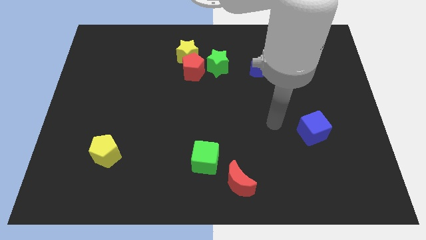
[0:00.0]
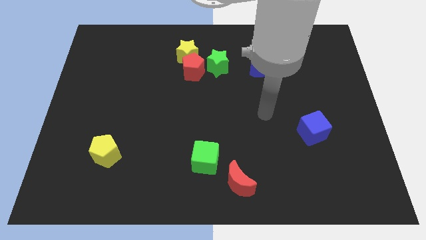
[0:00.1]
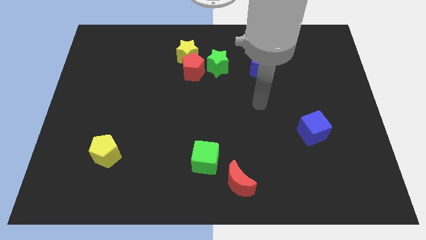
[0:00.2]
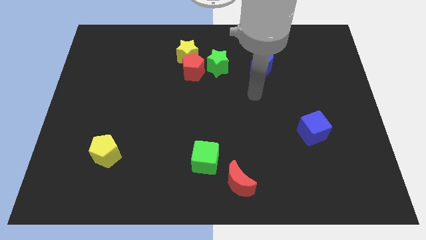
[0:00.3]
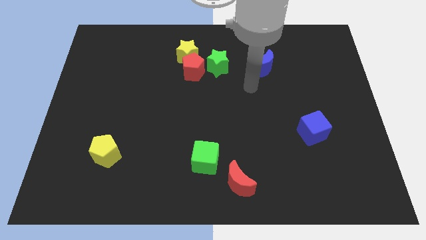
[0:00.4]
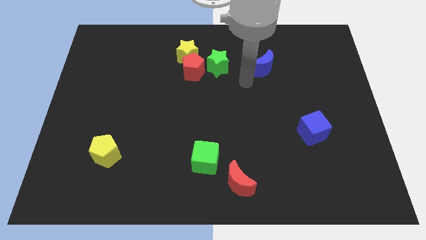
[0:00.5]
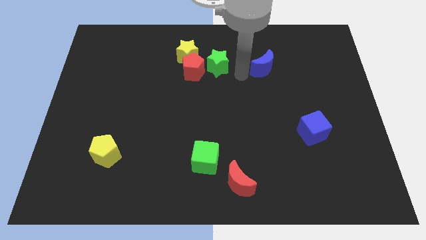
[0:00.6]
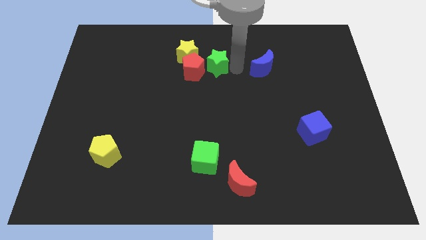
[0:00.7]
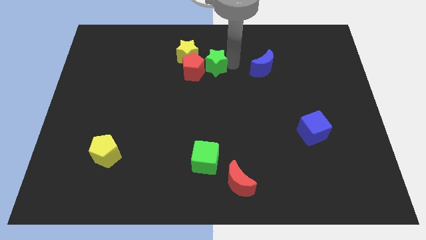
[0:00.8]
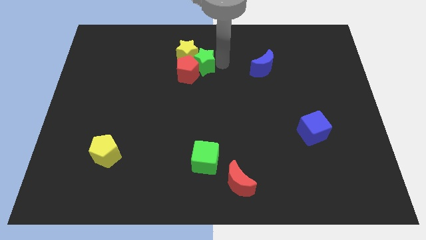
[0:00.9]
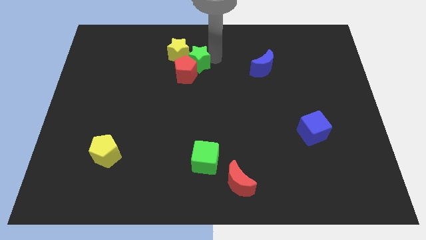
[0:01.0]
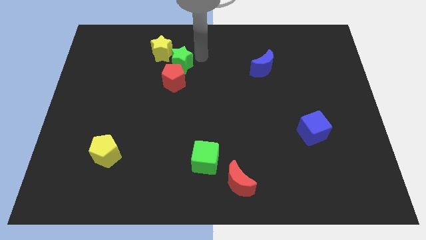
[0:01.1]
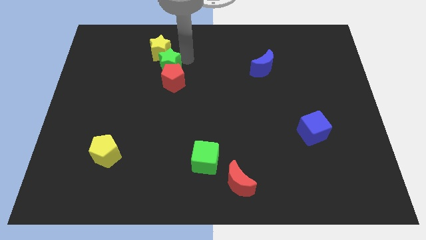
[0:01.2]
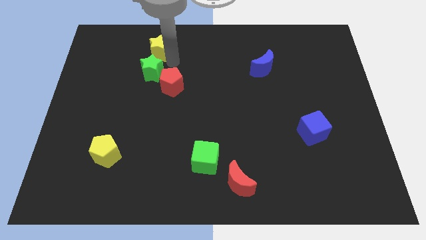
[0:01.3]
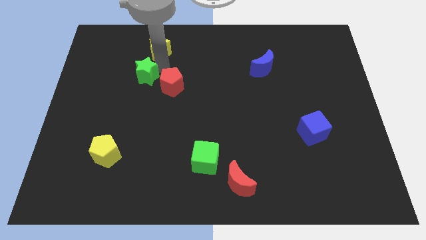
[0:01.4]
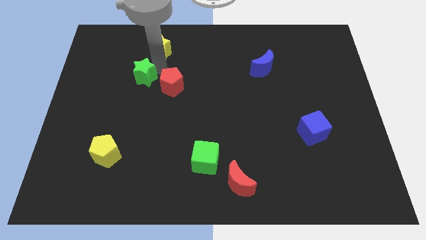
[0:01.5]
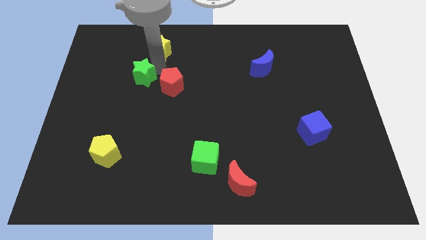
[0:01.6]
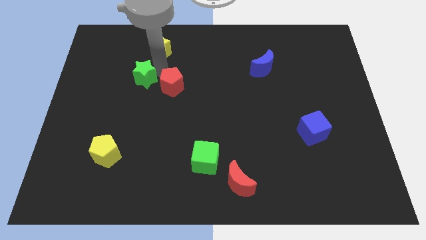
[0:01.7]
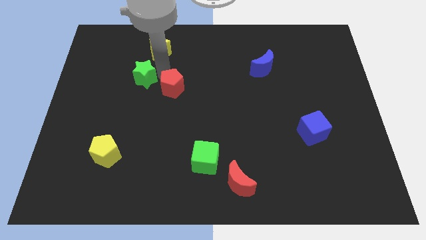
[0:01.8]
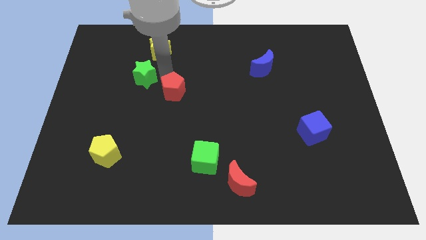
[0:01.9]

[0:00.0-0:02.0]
pull the red pentagon apart from the yellow star and green star

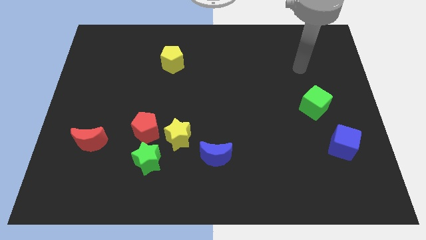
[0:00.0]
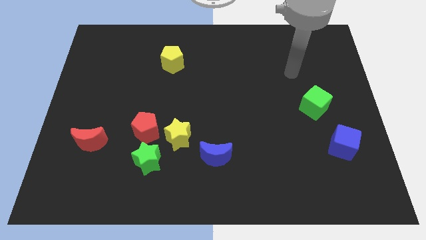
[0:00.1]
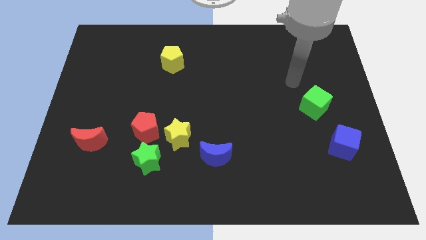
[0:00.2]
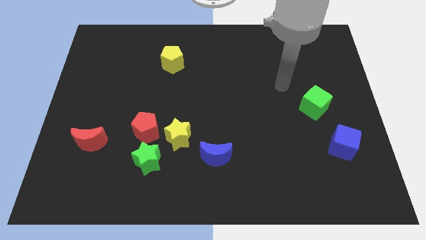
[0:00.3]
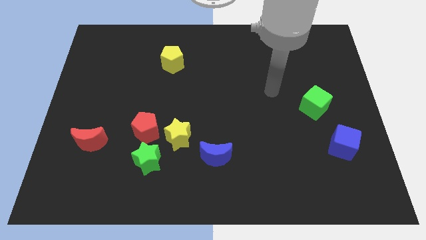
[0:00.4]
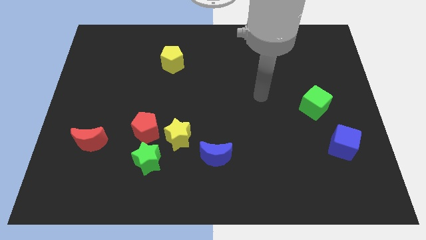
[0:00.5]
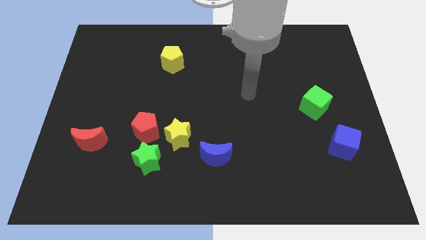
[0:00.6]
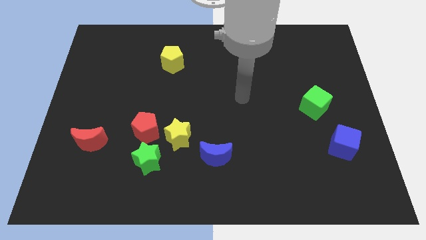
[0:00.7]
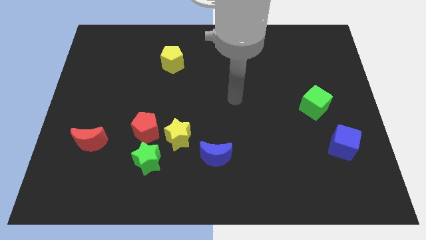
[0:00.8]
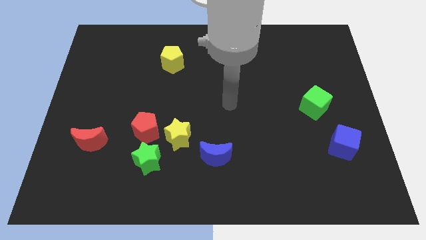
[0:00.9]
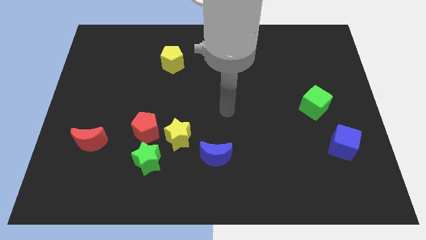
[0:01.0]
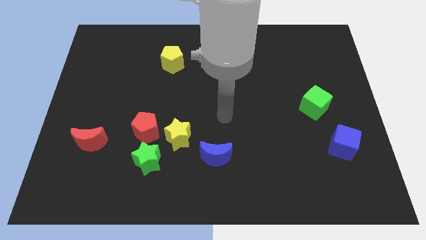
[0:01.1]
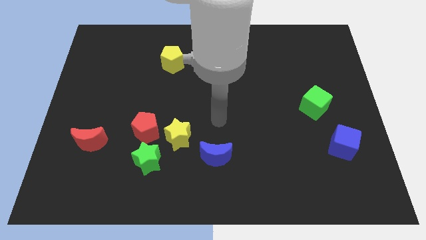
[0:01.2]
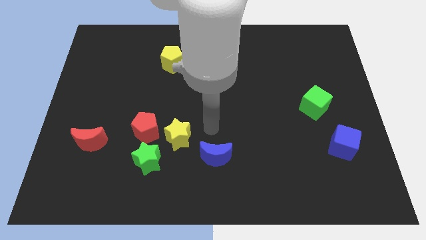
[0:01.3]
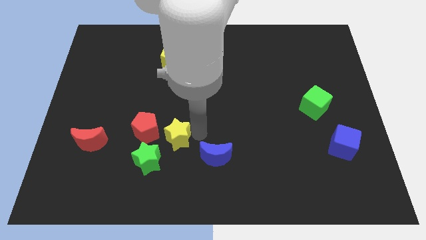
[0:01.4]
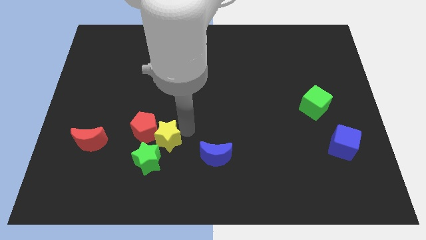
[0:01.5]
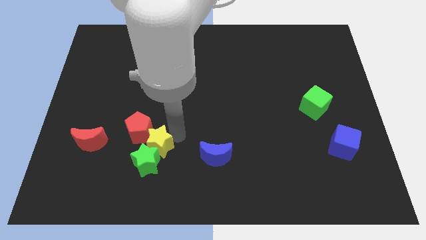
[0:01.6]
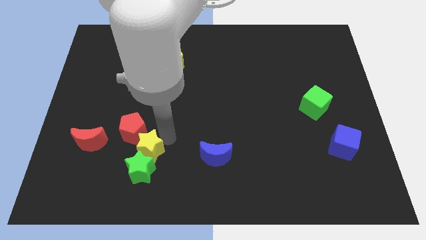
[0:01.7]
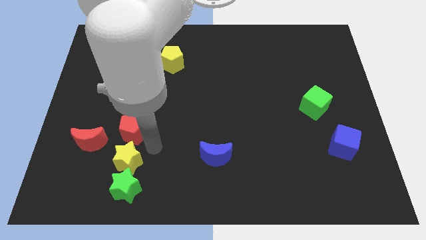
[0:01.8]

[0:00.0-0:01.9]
separate the red pentagon from the green star and yellow star

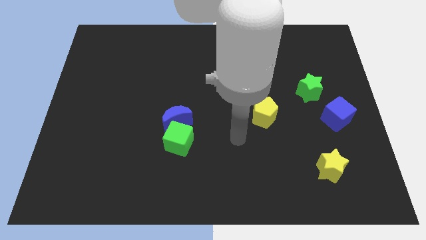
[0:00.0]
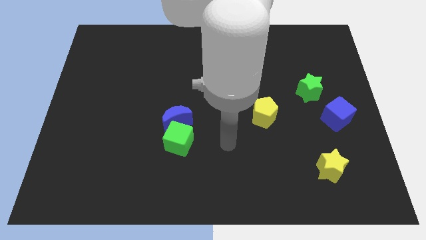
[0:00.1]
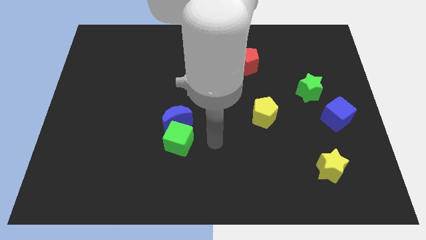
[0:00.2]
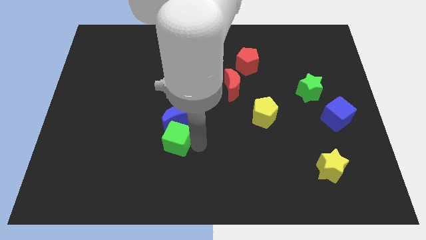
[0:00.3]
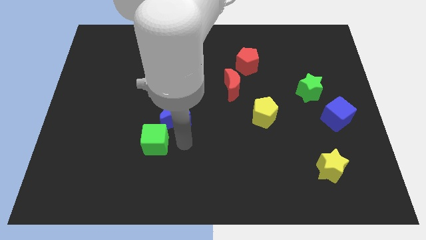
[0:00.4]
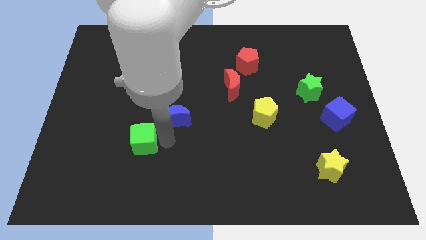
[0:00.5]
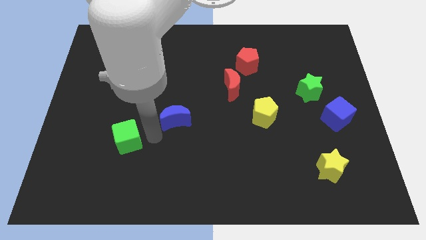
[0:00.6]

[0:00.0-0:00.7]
move the blue moon away from the green cube

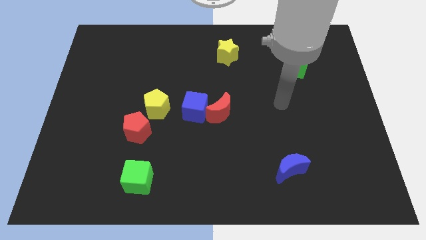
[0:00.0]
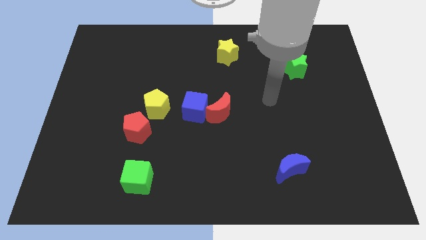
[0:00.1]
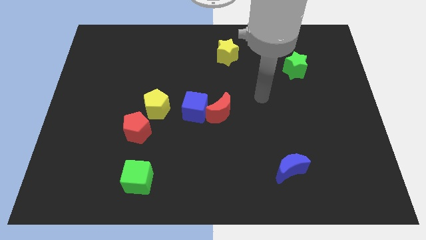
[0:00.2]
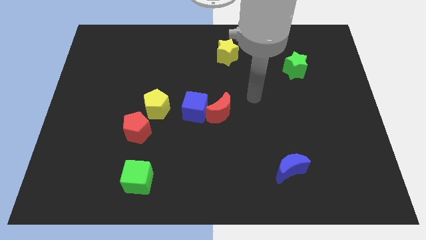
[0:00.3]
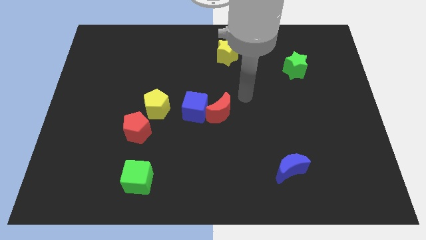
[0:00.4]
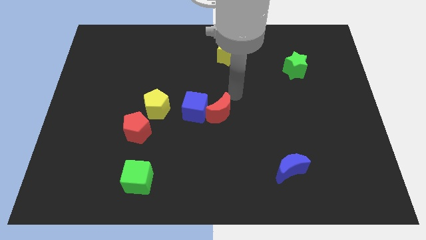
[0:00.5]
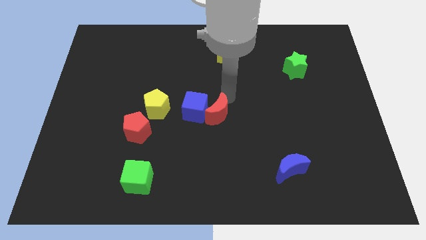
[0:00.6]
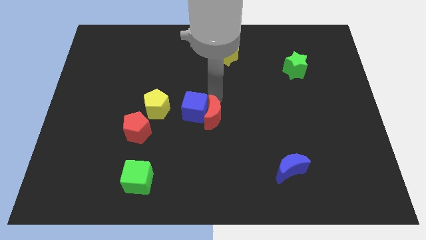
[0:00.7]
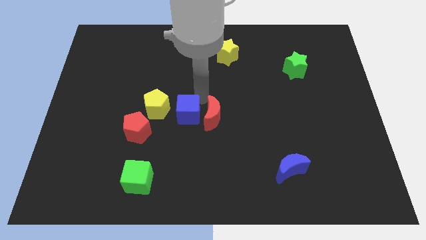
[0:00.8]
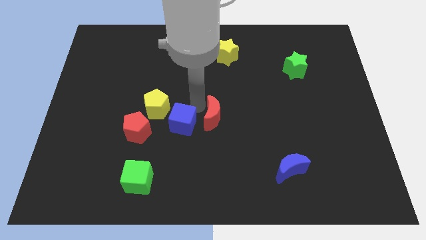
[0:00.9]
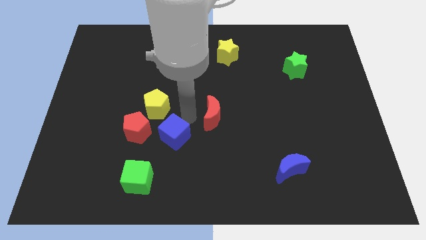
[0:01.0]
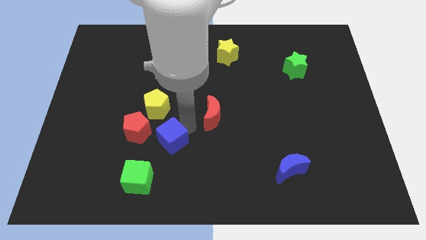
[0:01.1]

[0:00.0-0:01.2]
move the red moon away from the blue cube

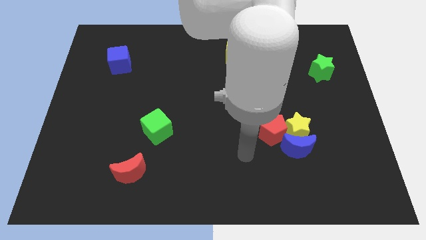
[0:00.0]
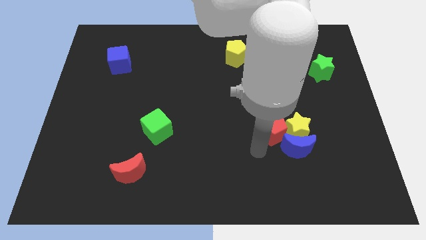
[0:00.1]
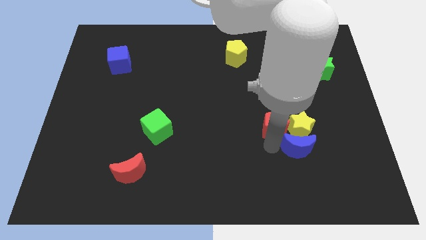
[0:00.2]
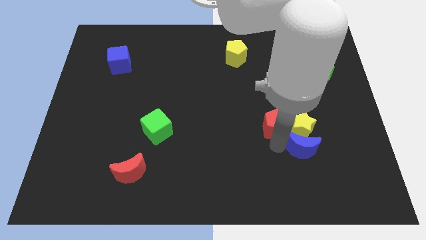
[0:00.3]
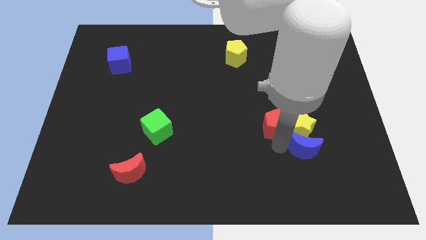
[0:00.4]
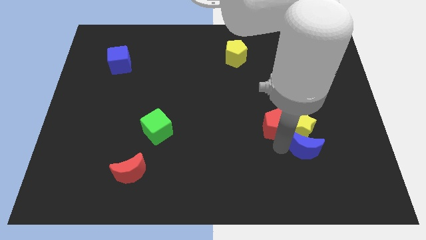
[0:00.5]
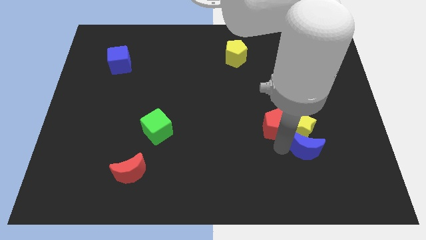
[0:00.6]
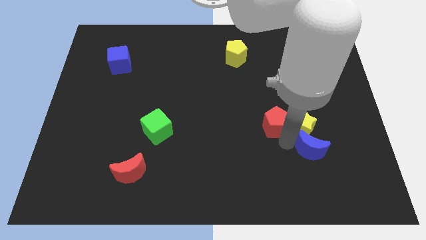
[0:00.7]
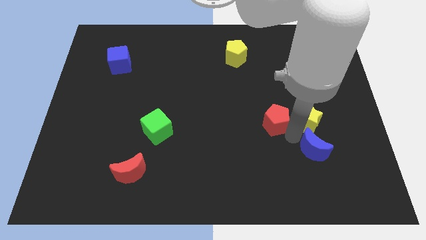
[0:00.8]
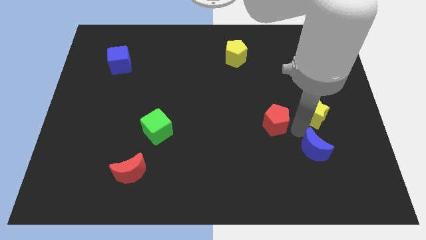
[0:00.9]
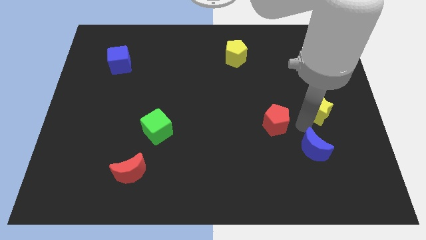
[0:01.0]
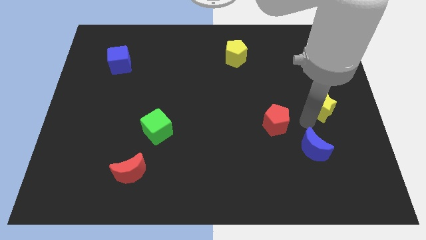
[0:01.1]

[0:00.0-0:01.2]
pull the yellow star apart from the blue moon and red pentagon

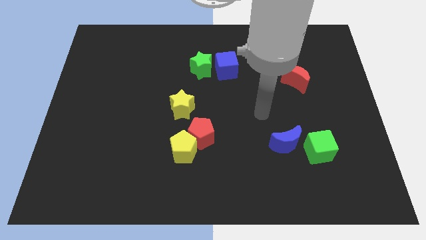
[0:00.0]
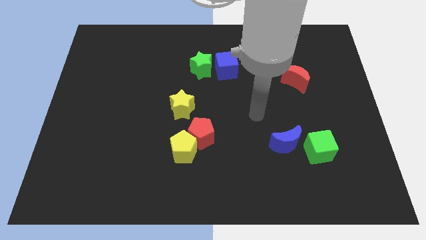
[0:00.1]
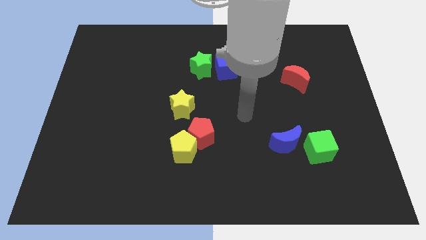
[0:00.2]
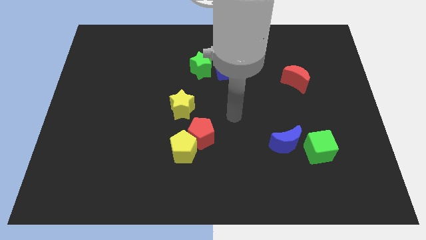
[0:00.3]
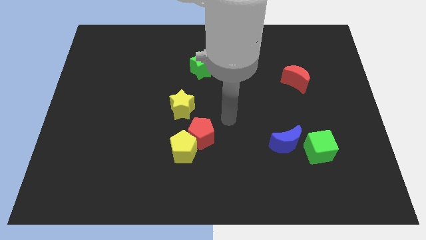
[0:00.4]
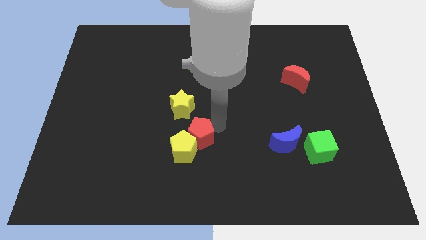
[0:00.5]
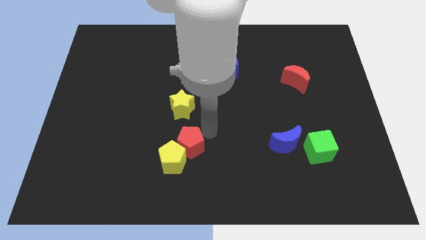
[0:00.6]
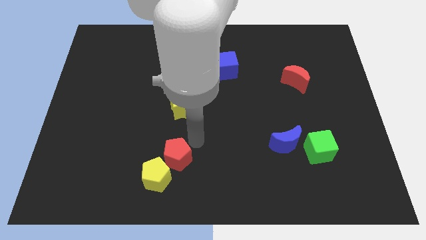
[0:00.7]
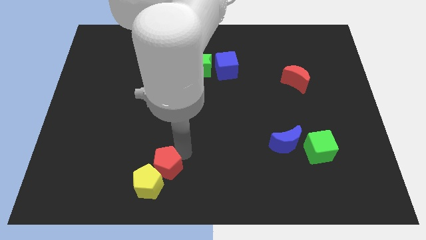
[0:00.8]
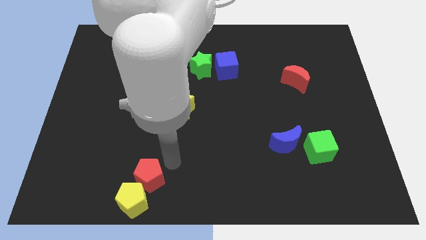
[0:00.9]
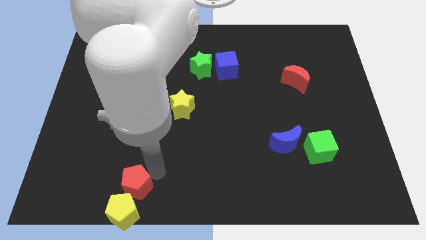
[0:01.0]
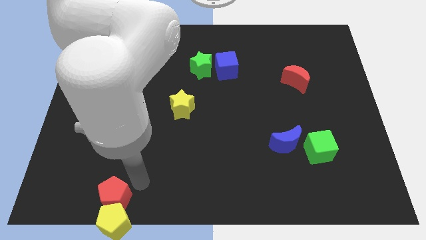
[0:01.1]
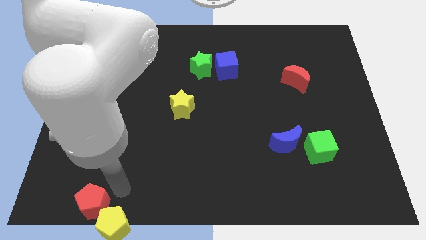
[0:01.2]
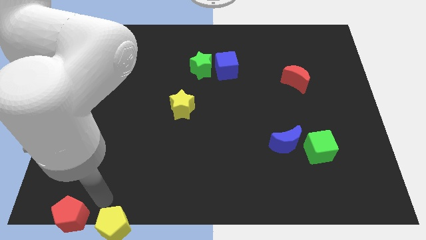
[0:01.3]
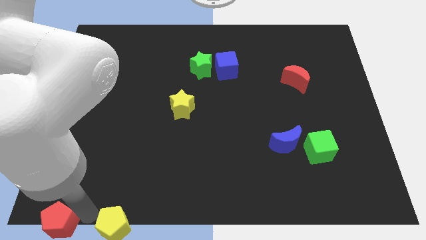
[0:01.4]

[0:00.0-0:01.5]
move the yellow pentagon away from the red pentagon

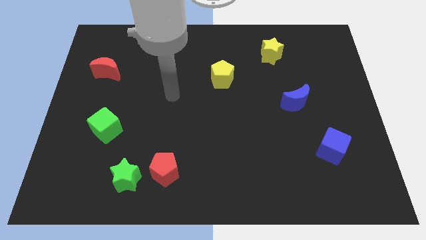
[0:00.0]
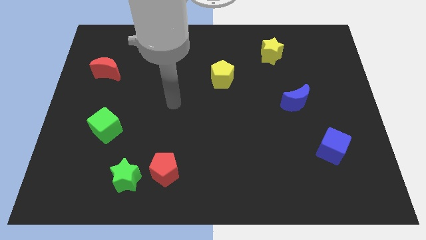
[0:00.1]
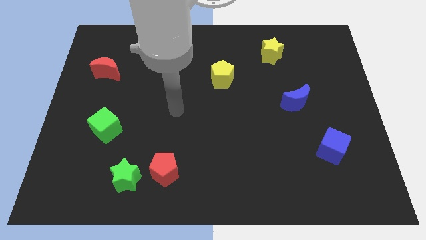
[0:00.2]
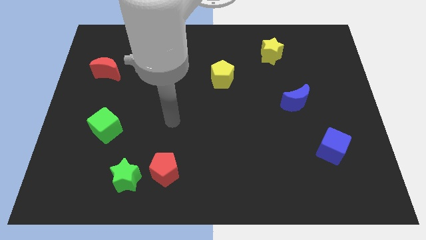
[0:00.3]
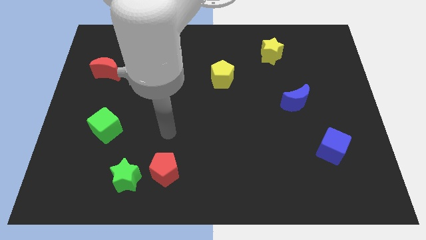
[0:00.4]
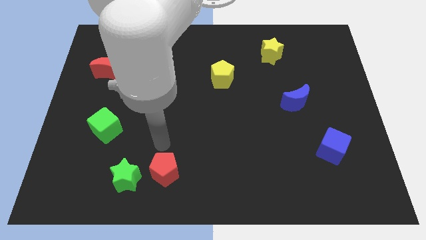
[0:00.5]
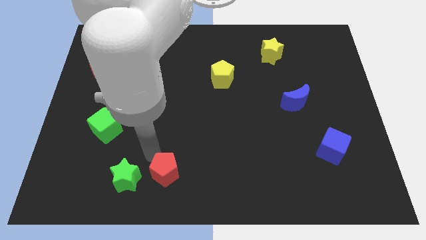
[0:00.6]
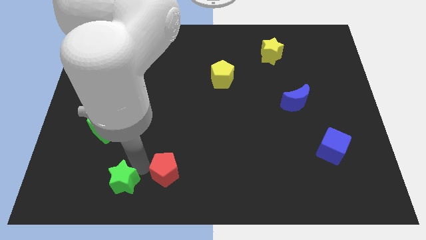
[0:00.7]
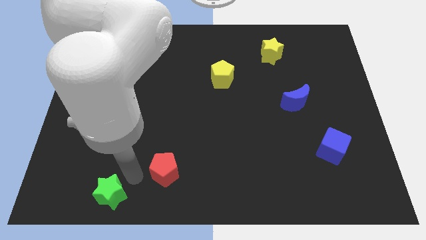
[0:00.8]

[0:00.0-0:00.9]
separate the red pentagon from the green star

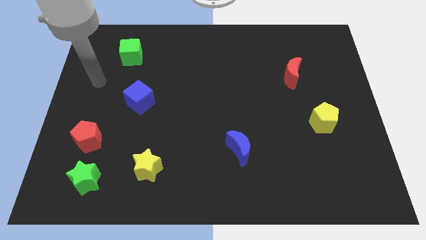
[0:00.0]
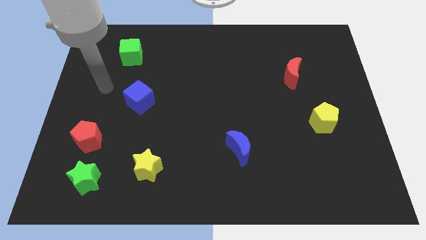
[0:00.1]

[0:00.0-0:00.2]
pull the red pentagon apart from the green star
